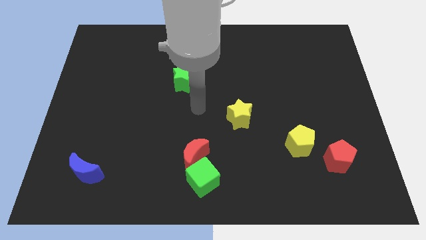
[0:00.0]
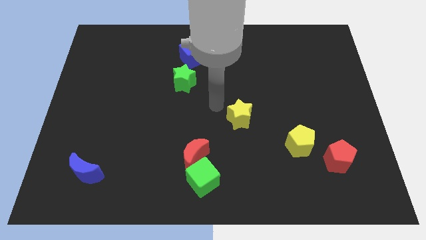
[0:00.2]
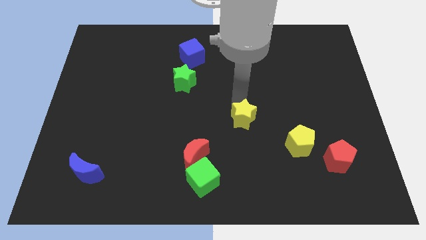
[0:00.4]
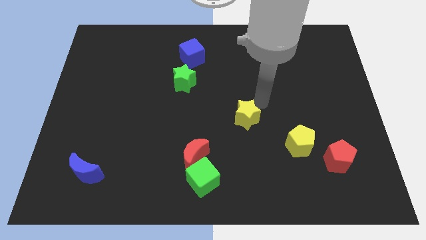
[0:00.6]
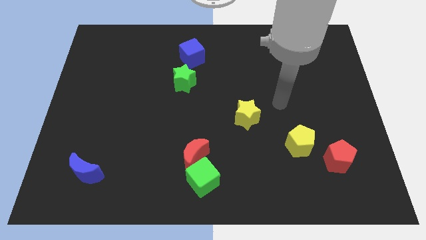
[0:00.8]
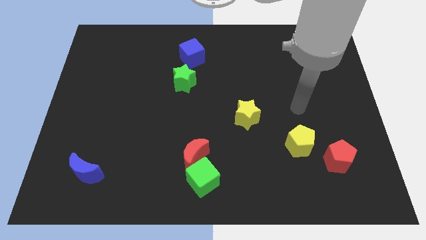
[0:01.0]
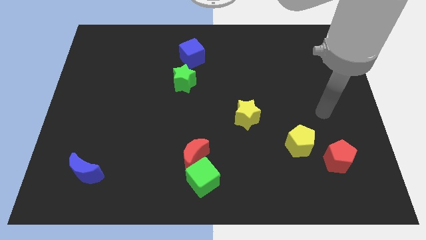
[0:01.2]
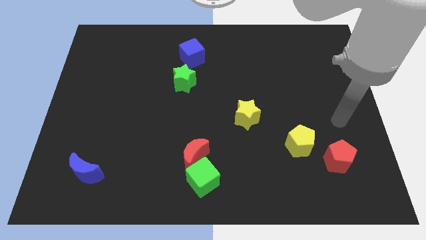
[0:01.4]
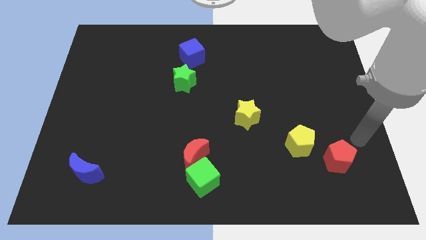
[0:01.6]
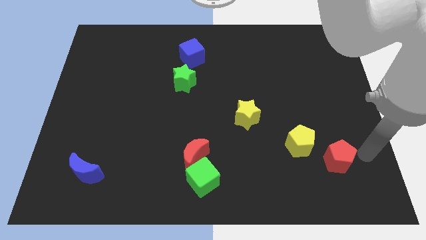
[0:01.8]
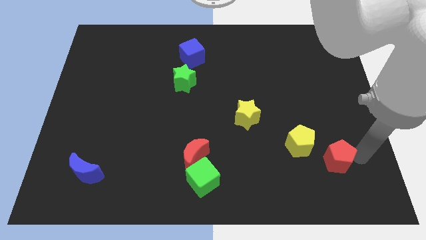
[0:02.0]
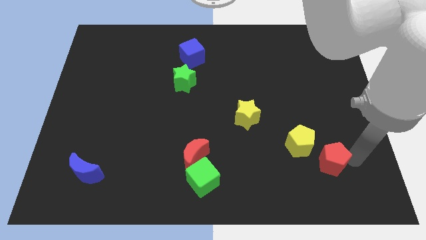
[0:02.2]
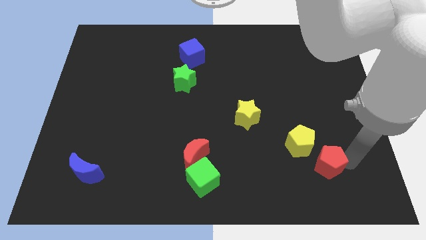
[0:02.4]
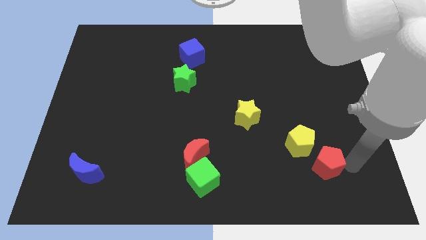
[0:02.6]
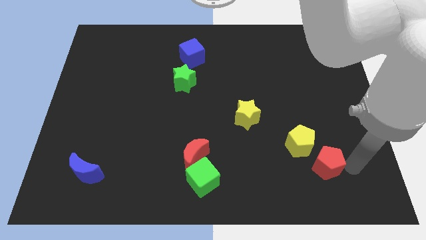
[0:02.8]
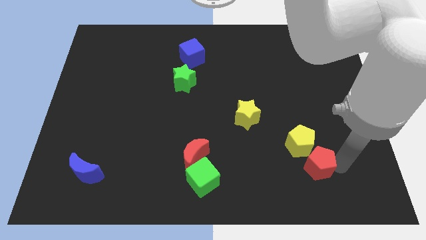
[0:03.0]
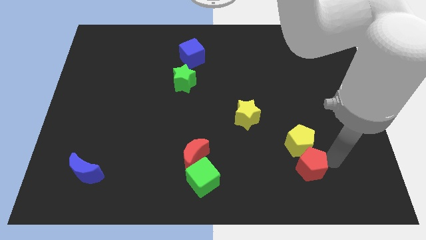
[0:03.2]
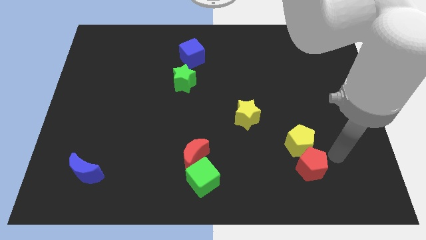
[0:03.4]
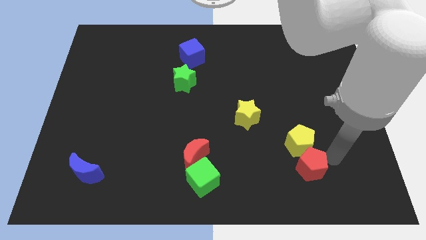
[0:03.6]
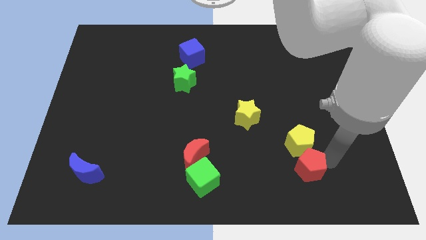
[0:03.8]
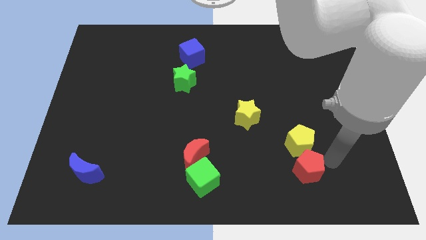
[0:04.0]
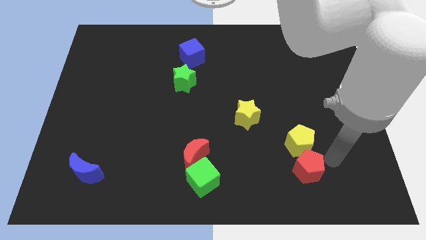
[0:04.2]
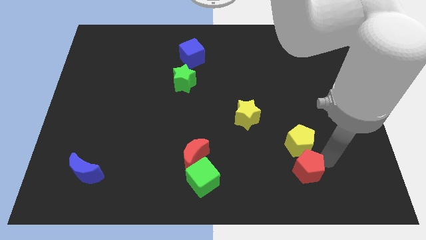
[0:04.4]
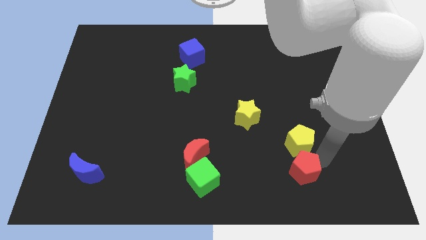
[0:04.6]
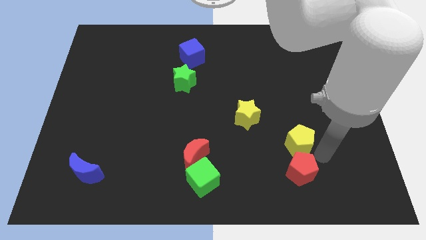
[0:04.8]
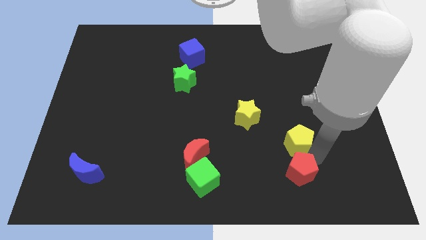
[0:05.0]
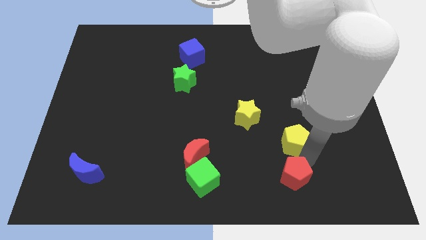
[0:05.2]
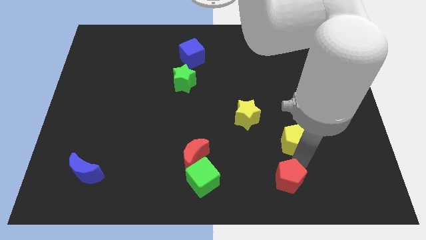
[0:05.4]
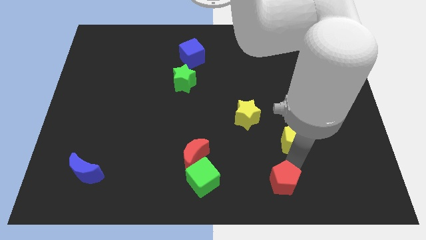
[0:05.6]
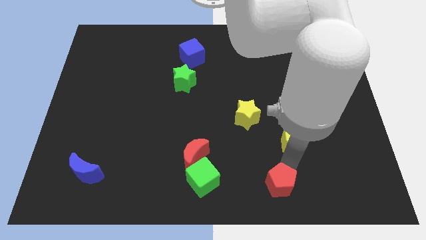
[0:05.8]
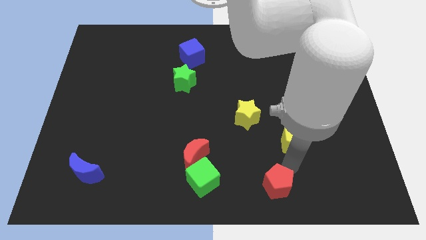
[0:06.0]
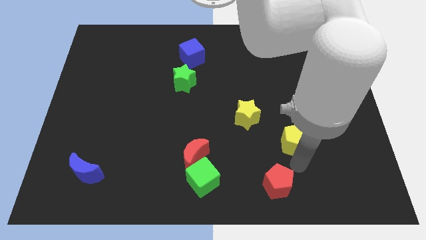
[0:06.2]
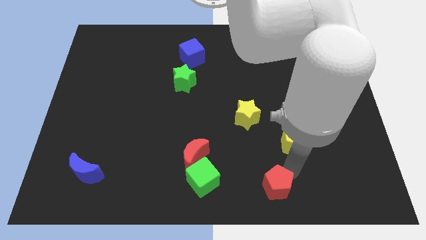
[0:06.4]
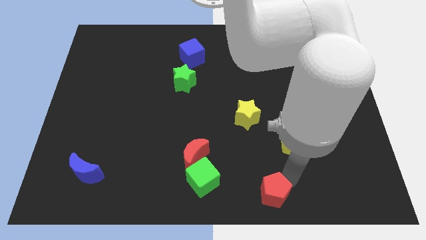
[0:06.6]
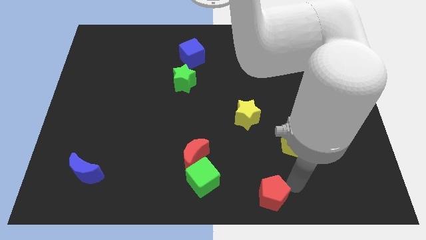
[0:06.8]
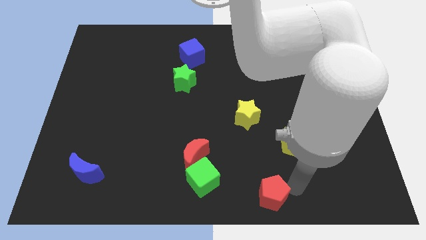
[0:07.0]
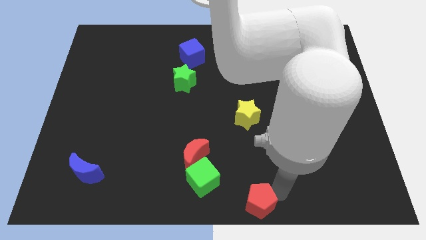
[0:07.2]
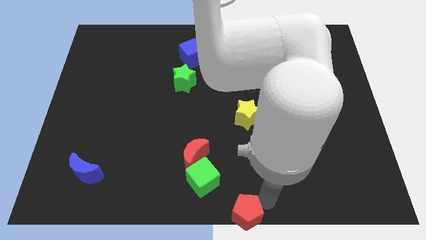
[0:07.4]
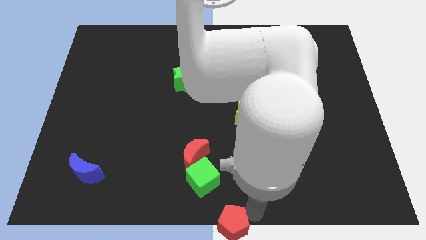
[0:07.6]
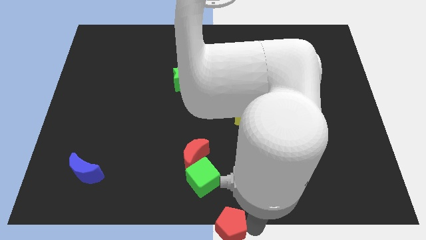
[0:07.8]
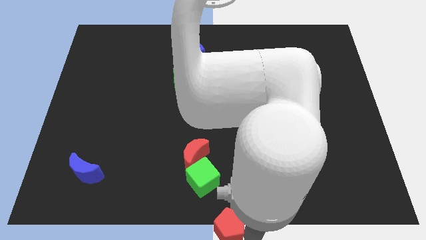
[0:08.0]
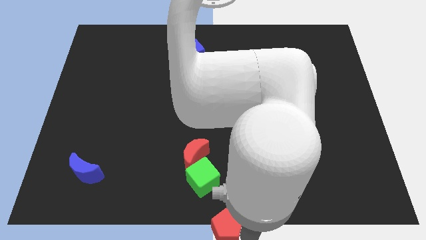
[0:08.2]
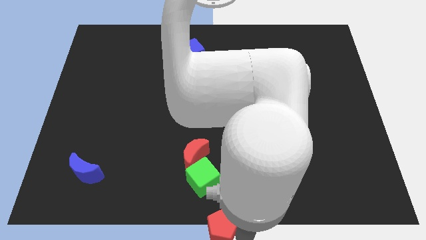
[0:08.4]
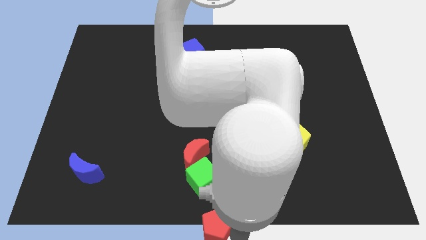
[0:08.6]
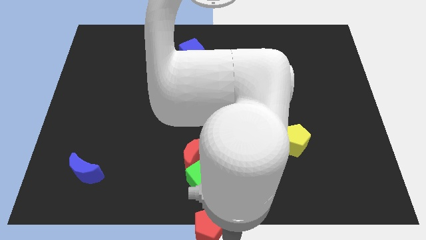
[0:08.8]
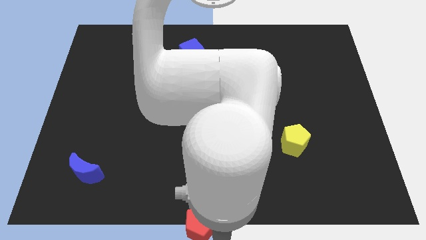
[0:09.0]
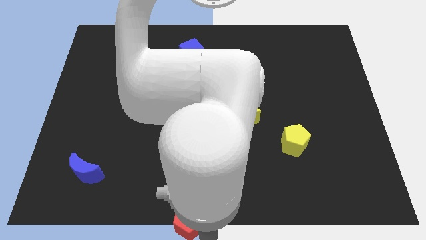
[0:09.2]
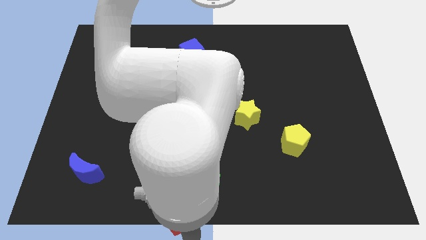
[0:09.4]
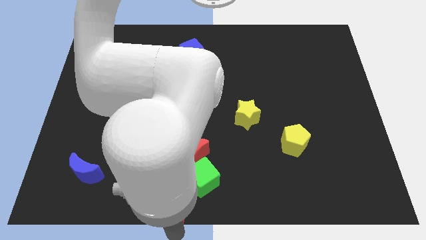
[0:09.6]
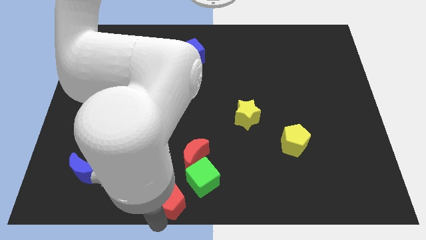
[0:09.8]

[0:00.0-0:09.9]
put the red pentagon to the bottom left side of the red moon

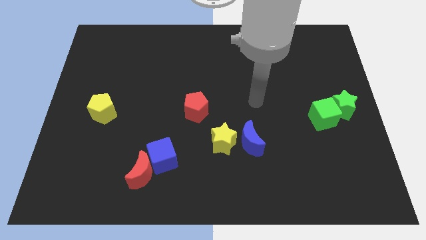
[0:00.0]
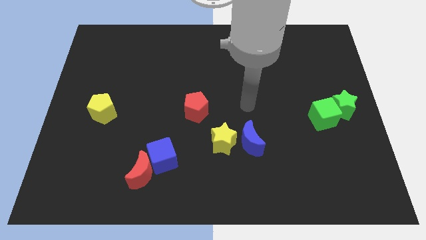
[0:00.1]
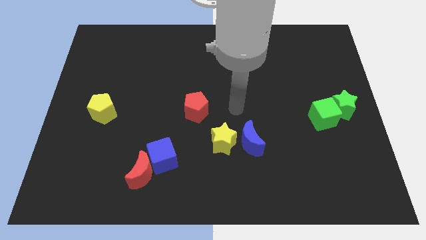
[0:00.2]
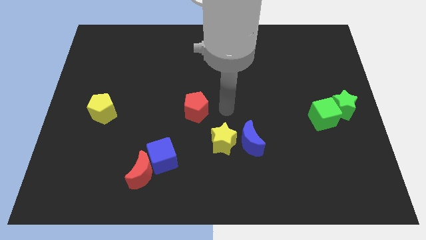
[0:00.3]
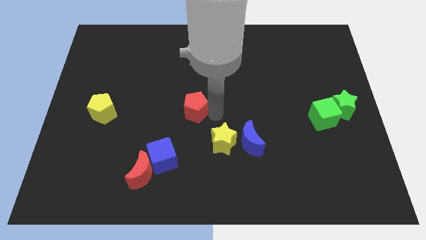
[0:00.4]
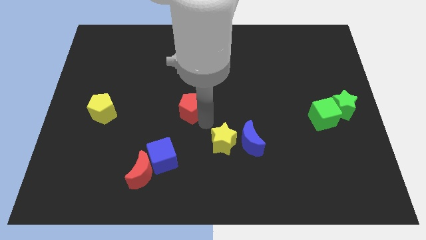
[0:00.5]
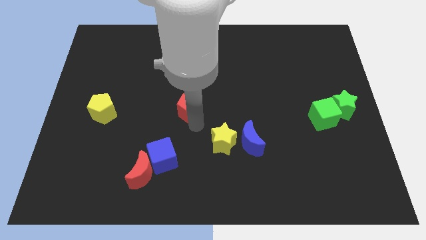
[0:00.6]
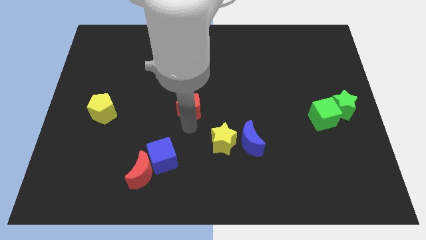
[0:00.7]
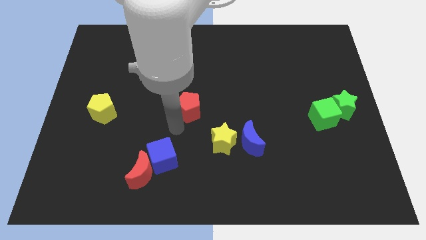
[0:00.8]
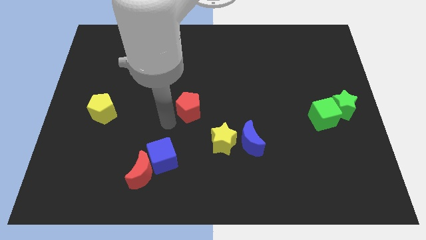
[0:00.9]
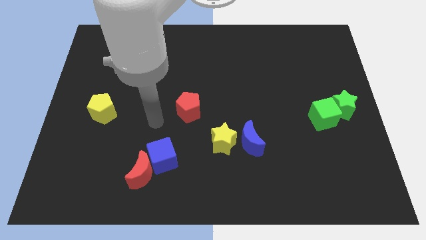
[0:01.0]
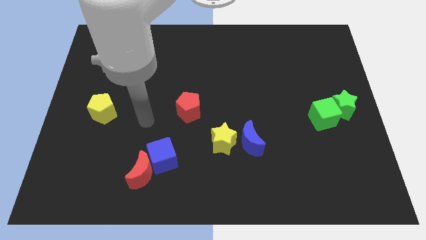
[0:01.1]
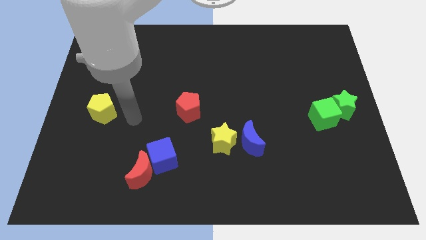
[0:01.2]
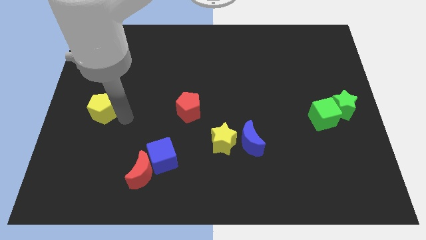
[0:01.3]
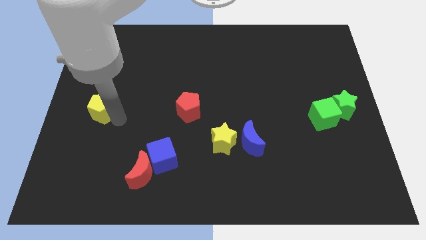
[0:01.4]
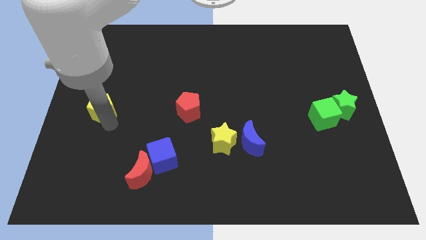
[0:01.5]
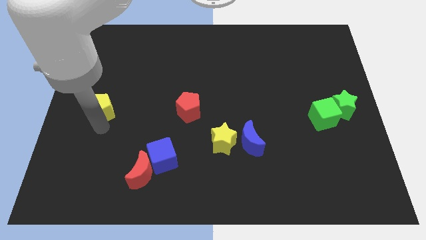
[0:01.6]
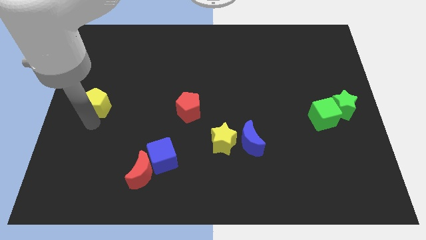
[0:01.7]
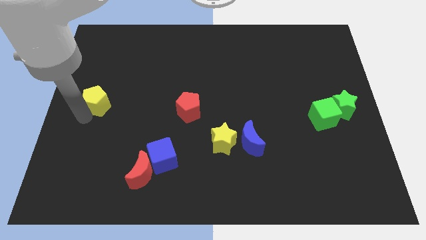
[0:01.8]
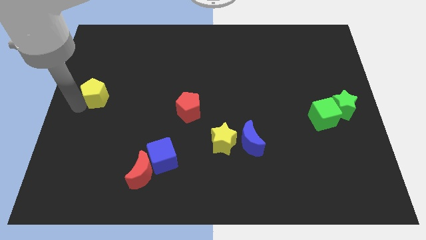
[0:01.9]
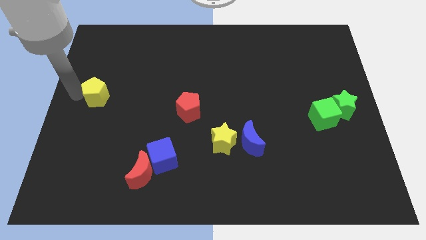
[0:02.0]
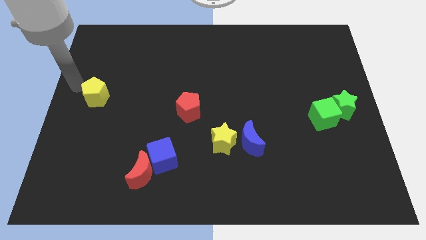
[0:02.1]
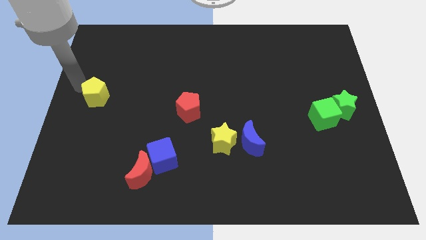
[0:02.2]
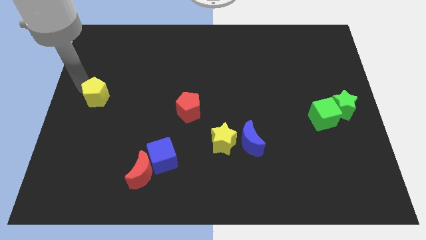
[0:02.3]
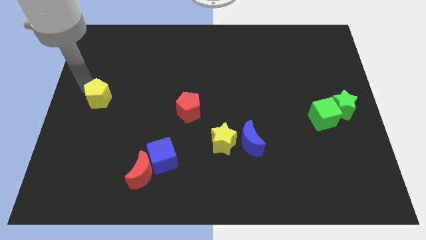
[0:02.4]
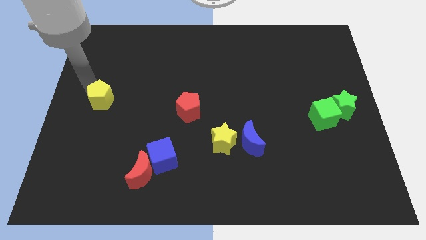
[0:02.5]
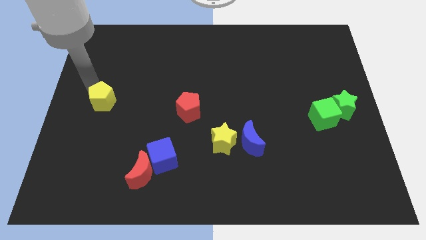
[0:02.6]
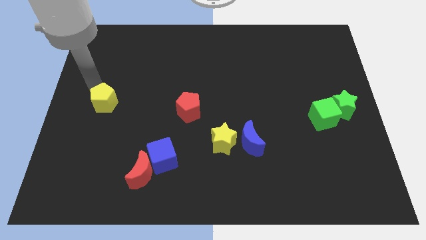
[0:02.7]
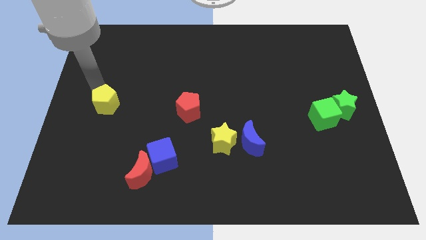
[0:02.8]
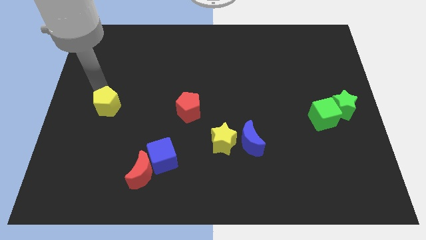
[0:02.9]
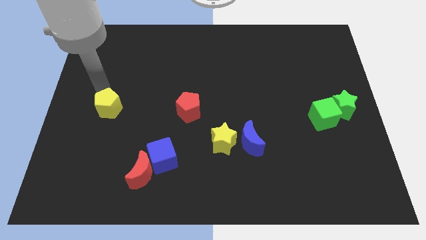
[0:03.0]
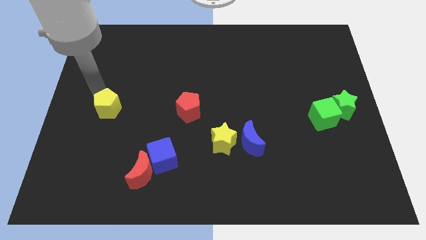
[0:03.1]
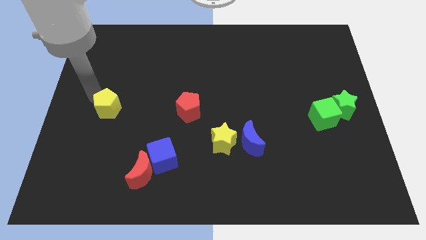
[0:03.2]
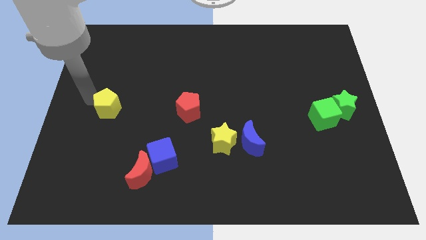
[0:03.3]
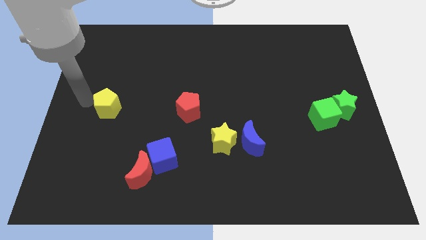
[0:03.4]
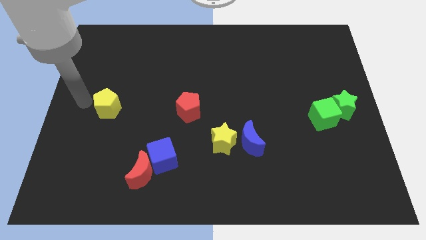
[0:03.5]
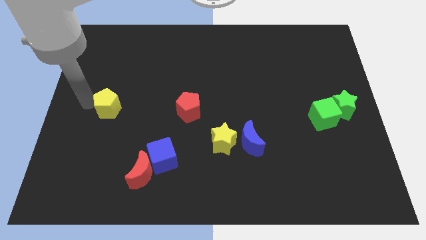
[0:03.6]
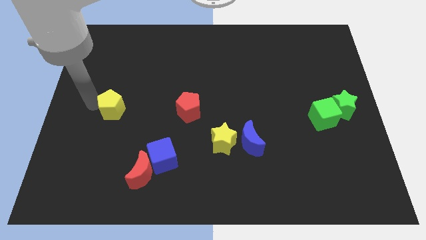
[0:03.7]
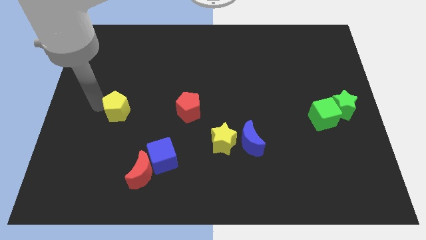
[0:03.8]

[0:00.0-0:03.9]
move the yellow pentagon to the left side of the red pentagon
